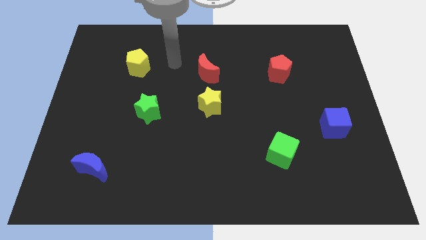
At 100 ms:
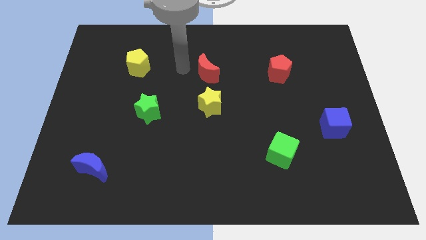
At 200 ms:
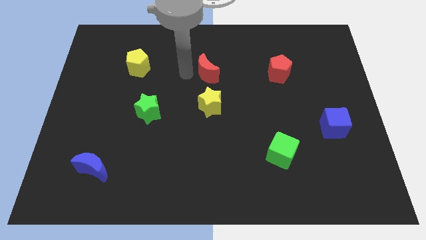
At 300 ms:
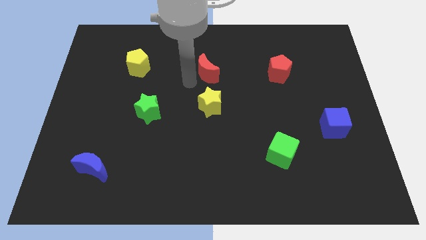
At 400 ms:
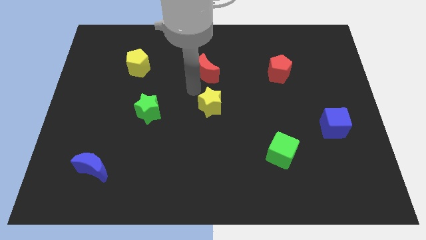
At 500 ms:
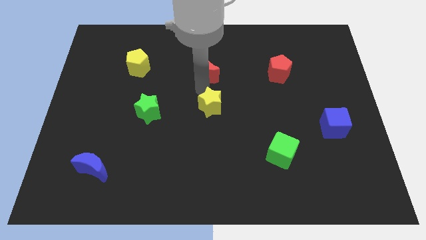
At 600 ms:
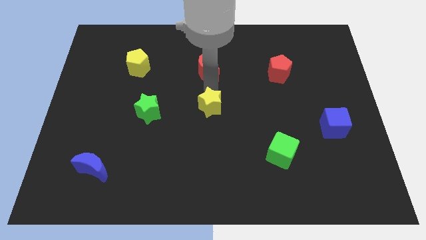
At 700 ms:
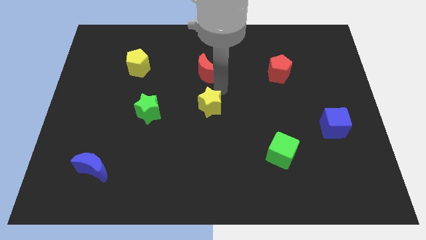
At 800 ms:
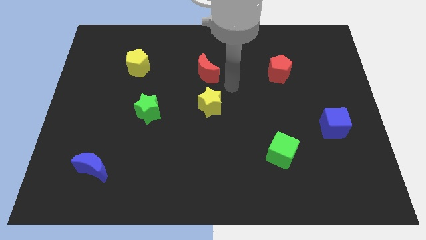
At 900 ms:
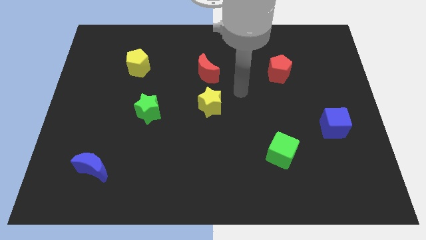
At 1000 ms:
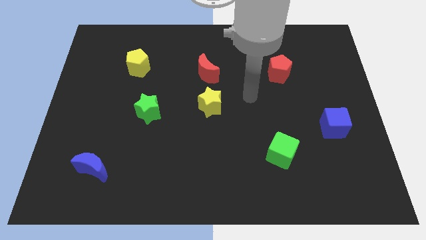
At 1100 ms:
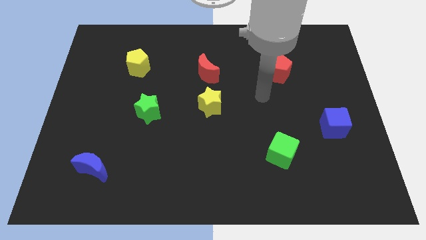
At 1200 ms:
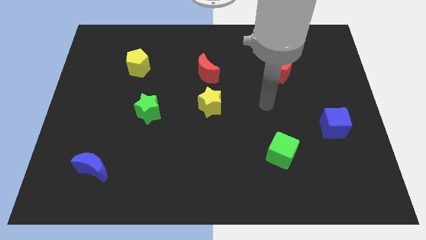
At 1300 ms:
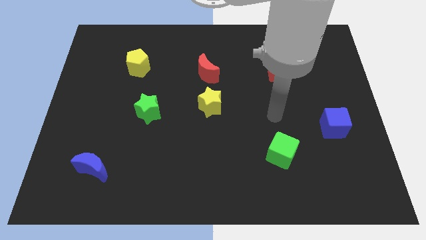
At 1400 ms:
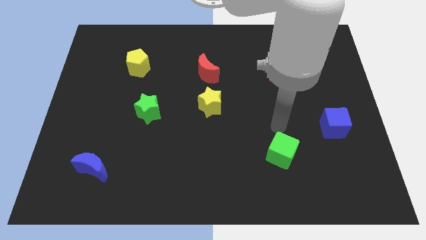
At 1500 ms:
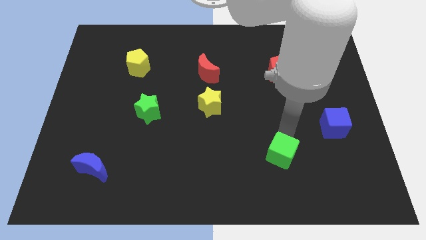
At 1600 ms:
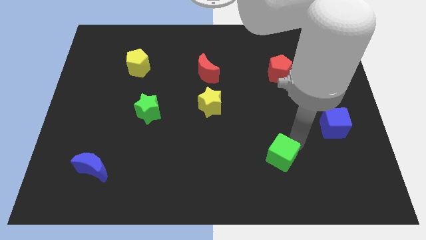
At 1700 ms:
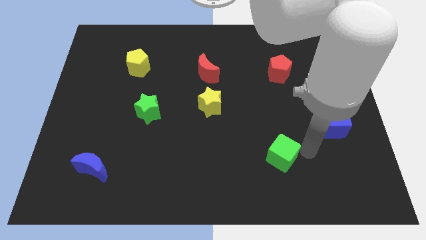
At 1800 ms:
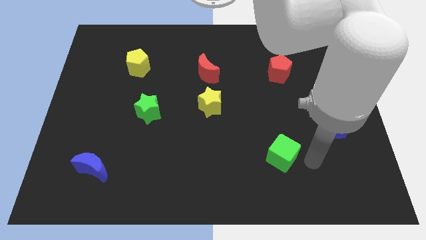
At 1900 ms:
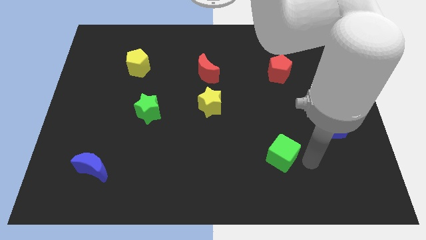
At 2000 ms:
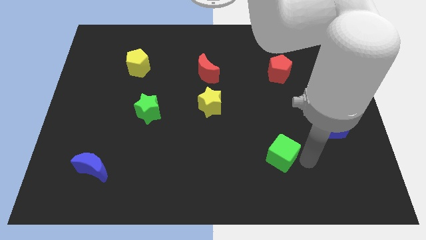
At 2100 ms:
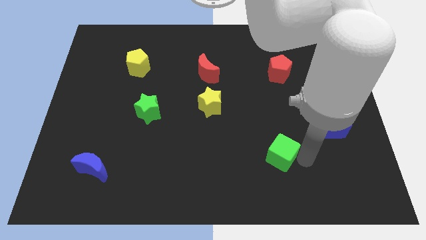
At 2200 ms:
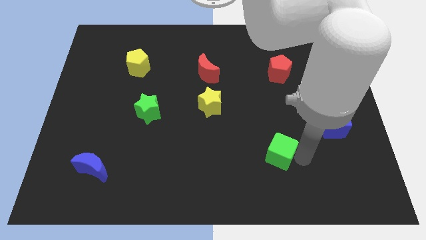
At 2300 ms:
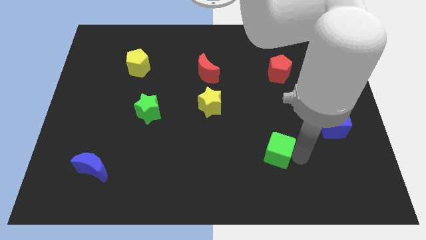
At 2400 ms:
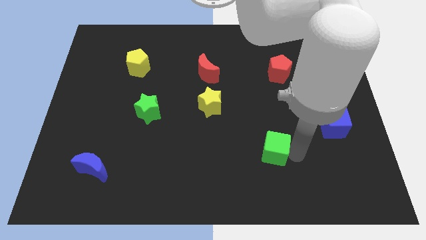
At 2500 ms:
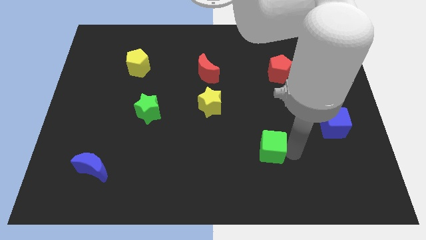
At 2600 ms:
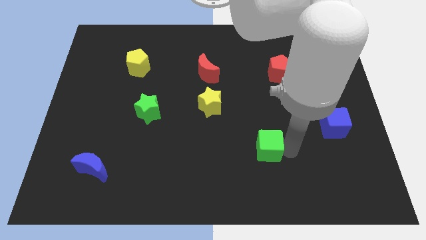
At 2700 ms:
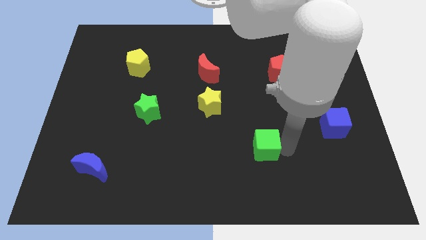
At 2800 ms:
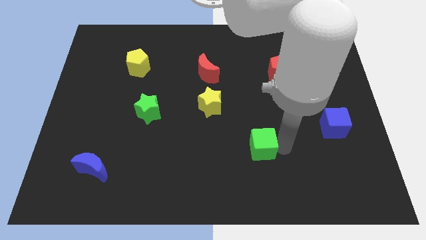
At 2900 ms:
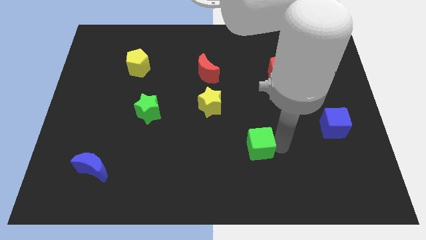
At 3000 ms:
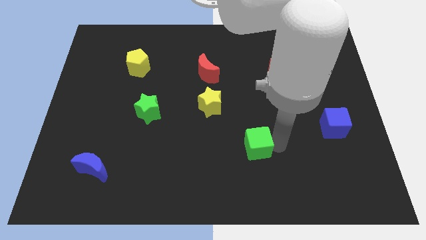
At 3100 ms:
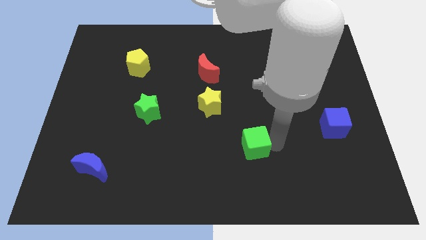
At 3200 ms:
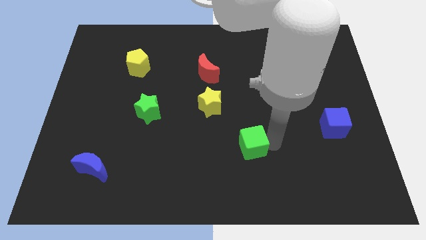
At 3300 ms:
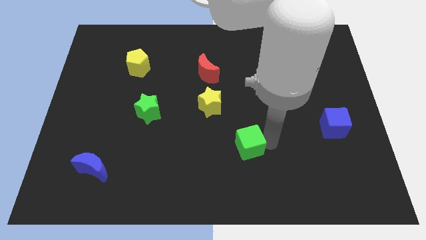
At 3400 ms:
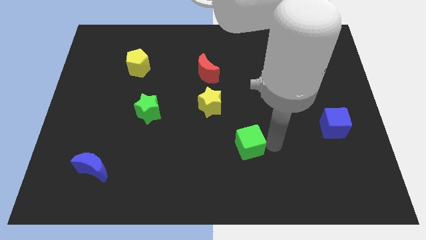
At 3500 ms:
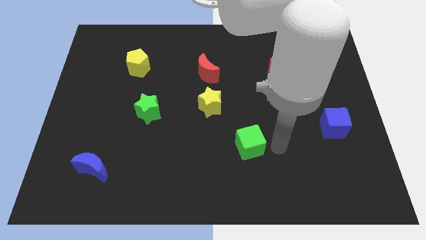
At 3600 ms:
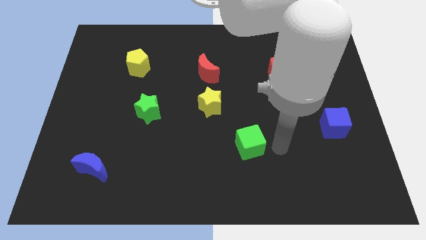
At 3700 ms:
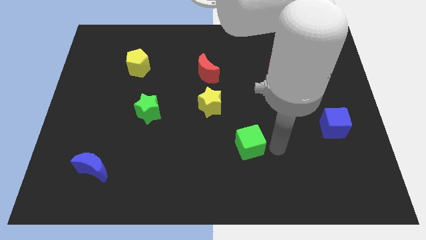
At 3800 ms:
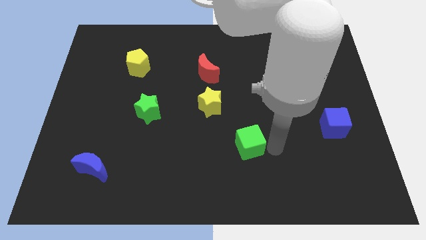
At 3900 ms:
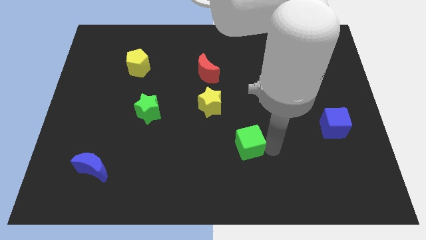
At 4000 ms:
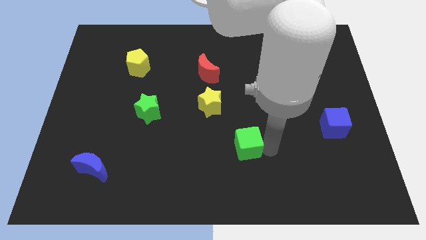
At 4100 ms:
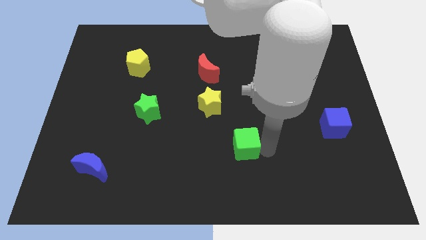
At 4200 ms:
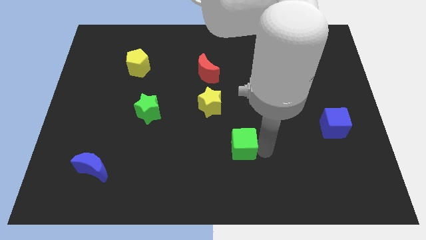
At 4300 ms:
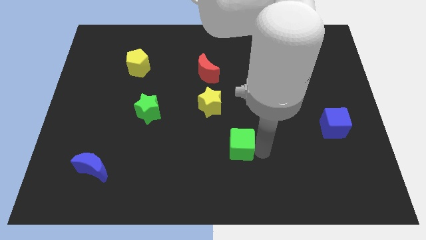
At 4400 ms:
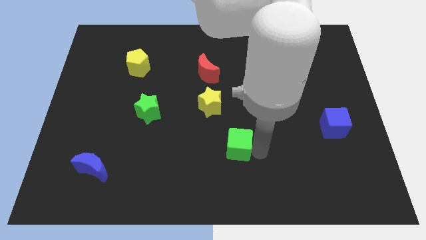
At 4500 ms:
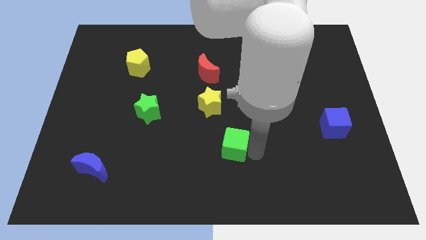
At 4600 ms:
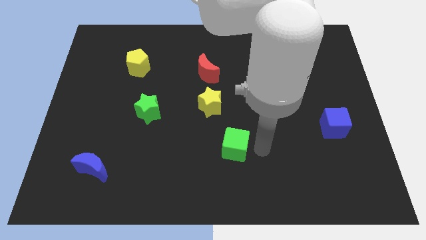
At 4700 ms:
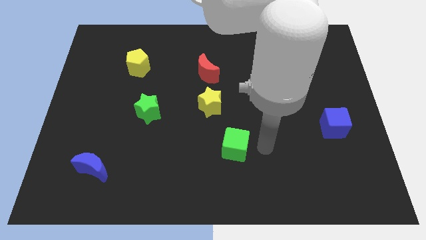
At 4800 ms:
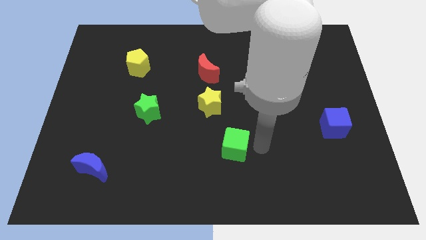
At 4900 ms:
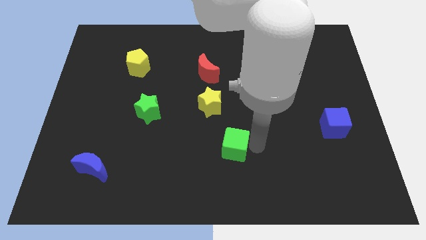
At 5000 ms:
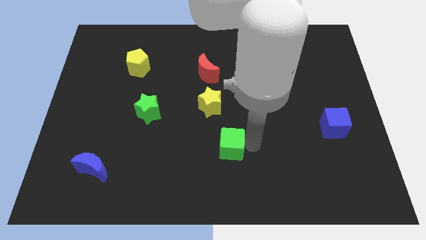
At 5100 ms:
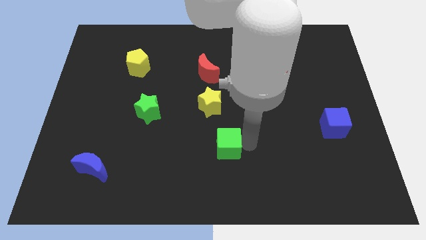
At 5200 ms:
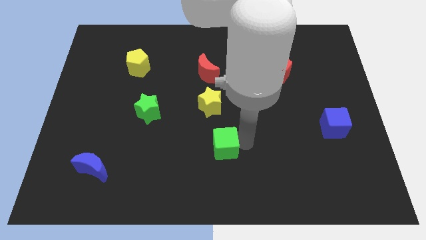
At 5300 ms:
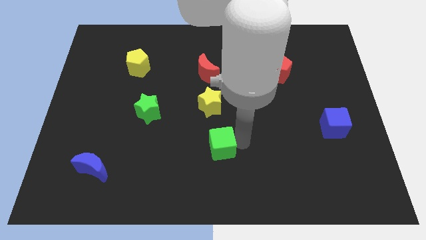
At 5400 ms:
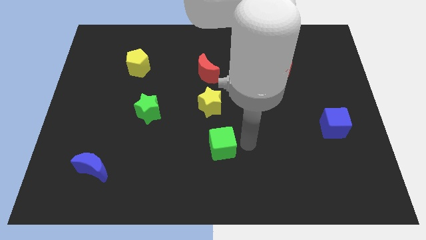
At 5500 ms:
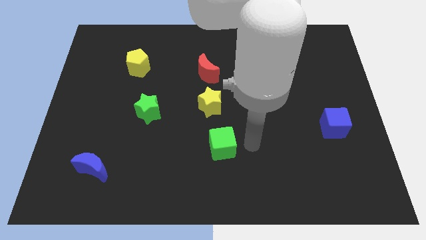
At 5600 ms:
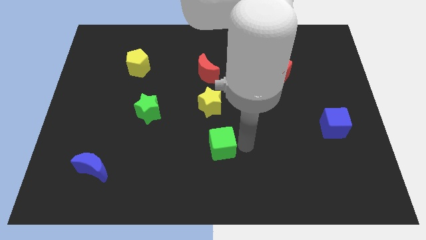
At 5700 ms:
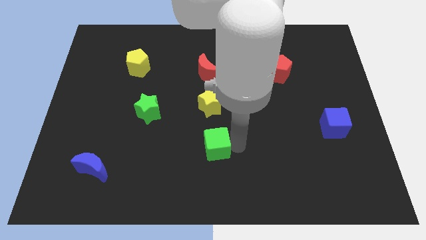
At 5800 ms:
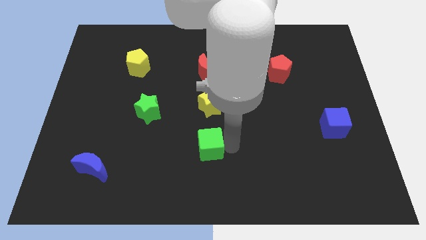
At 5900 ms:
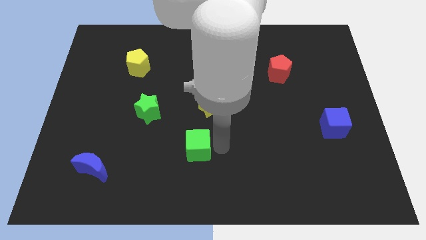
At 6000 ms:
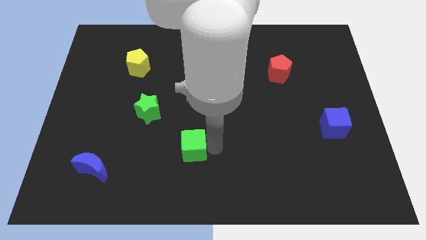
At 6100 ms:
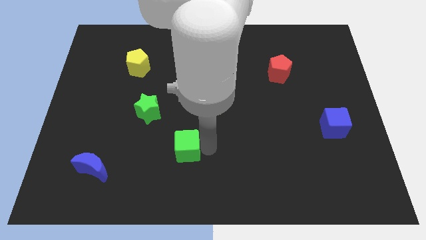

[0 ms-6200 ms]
move the green cube left

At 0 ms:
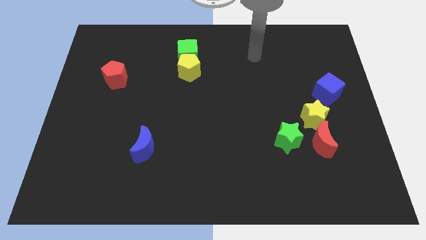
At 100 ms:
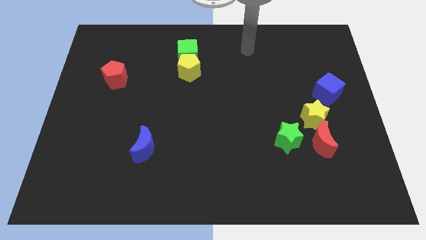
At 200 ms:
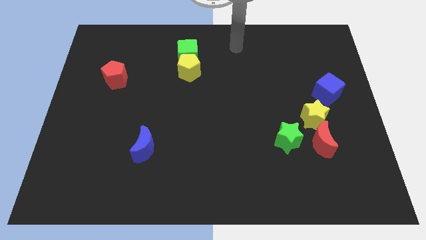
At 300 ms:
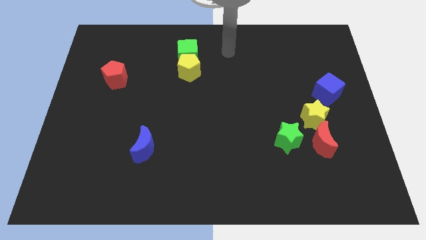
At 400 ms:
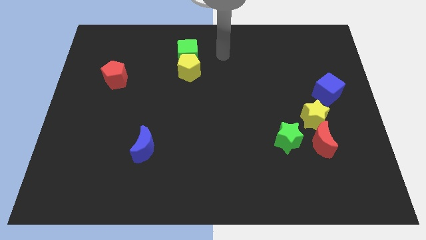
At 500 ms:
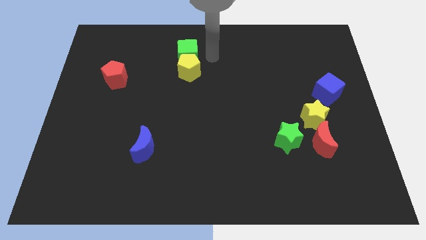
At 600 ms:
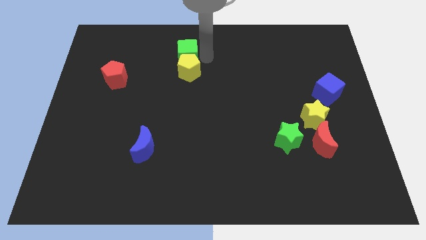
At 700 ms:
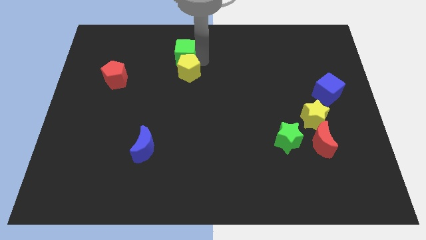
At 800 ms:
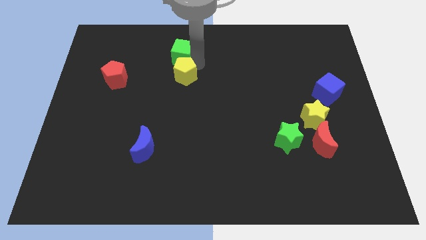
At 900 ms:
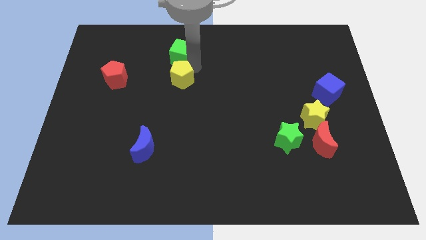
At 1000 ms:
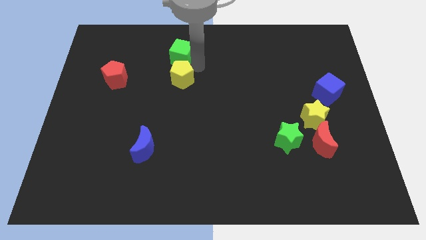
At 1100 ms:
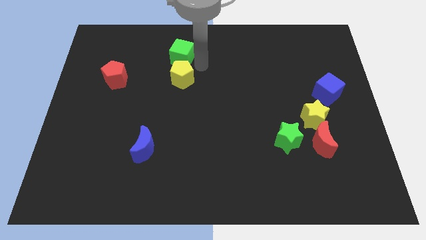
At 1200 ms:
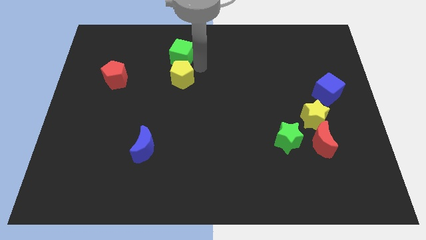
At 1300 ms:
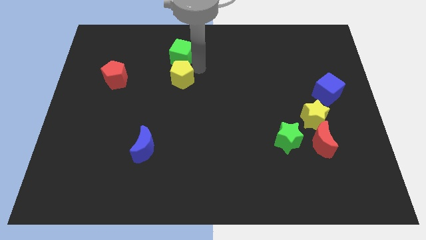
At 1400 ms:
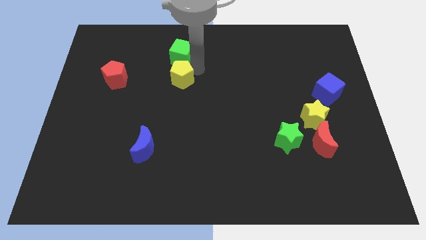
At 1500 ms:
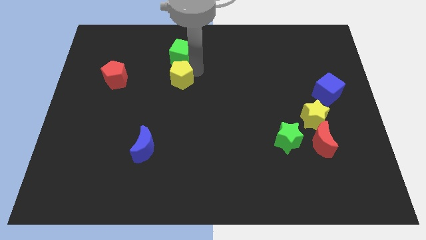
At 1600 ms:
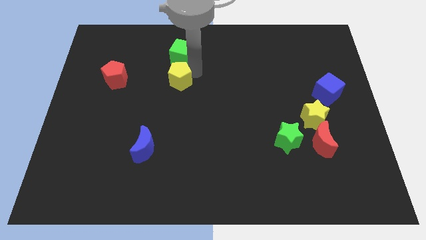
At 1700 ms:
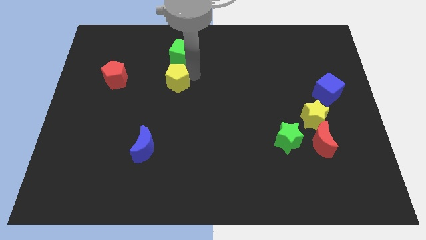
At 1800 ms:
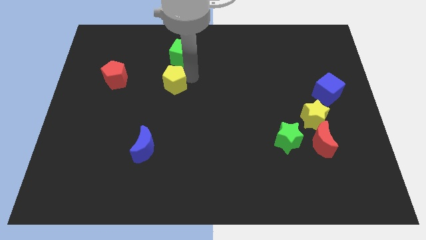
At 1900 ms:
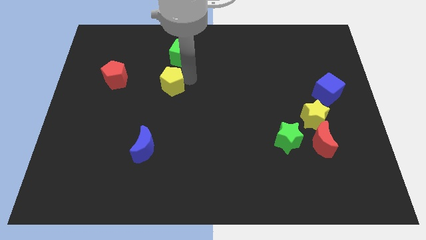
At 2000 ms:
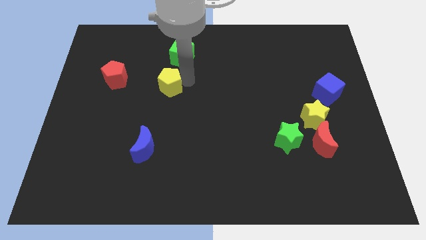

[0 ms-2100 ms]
slide the yellow pentagon a bit down and left
